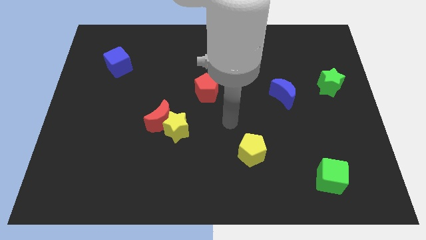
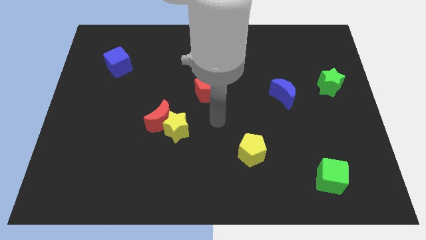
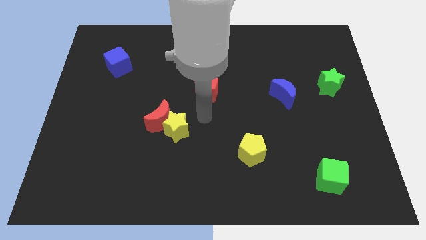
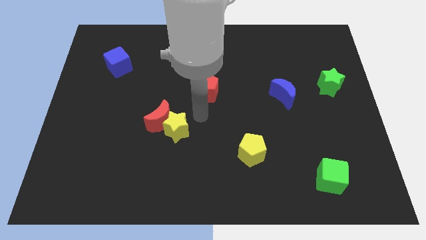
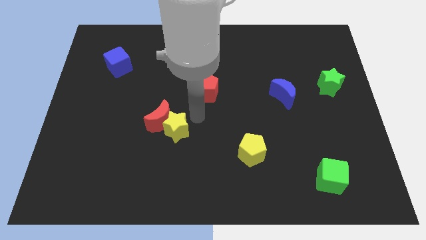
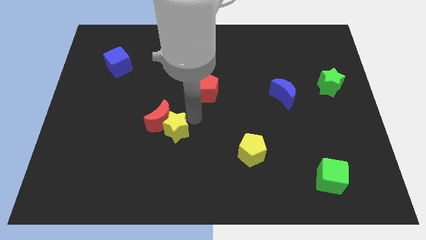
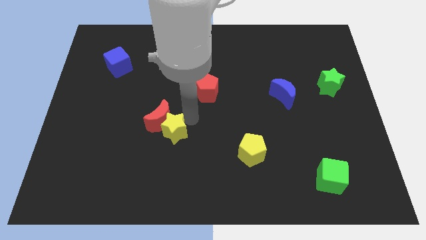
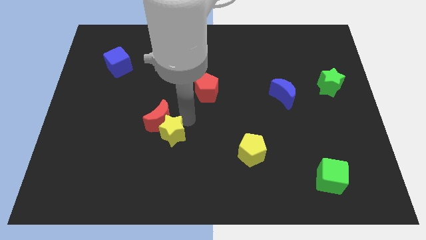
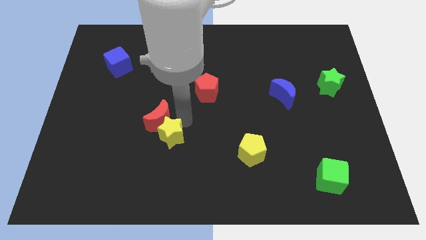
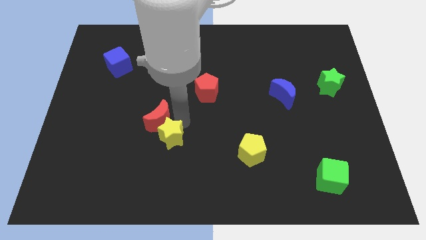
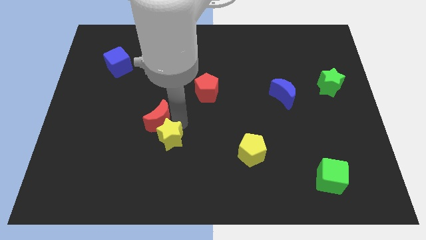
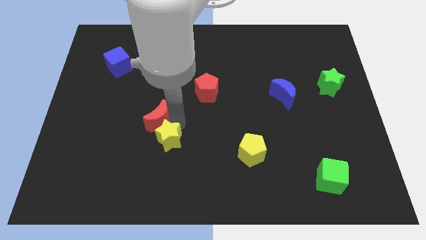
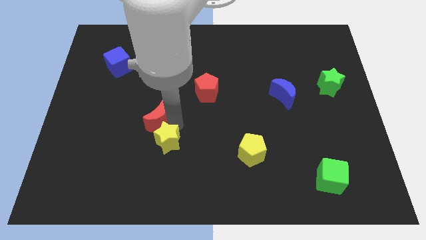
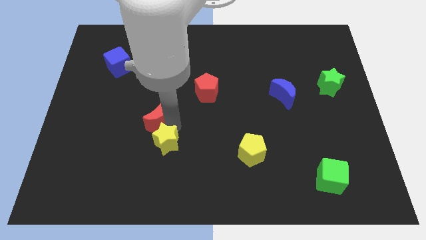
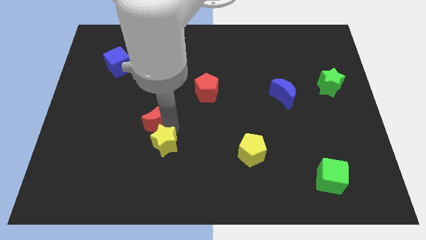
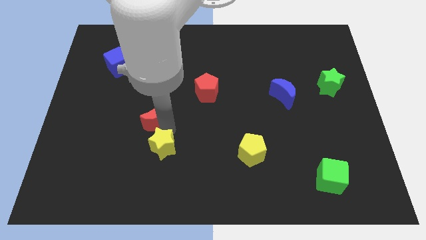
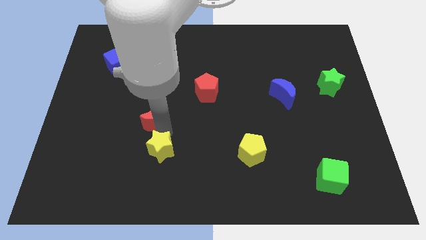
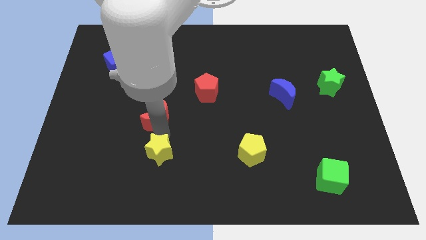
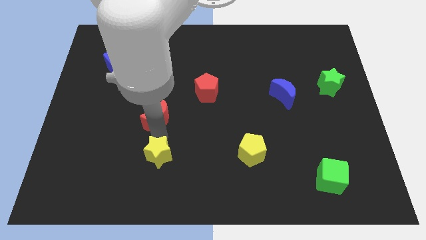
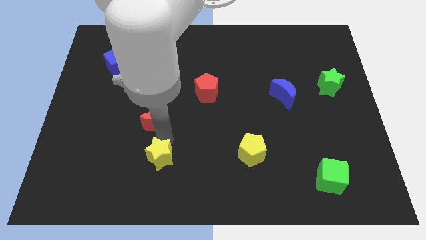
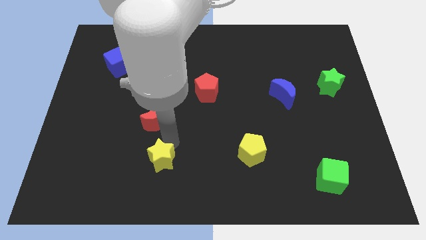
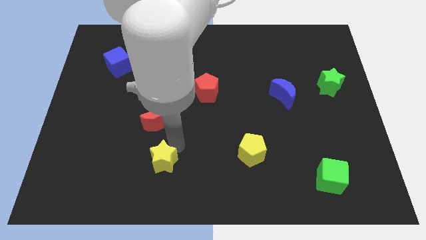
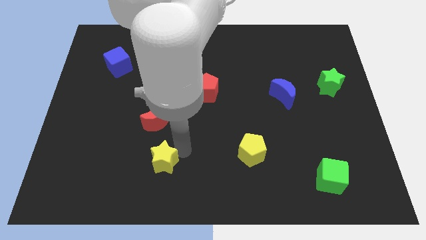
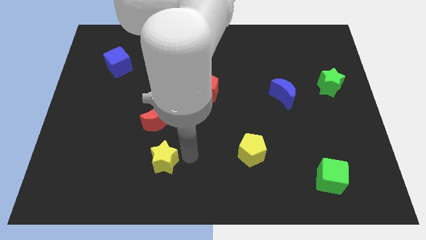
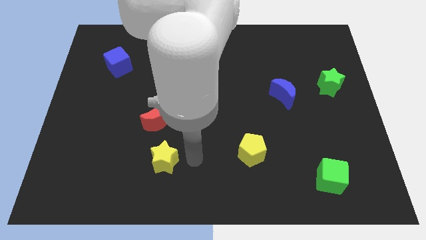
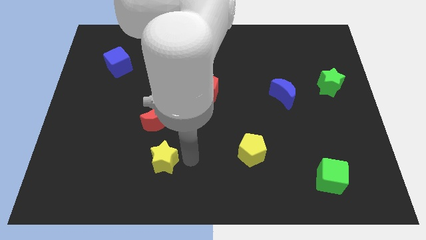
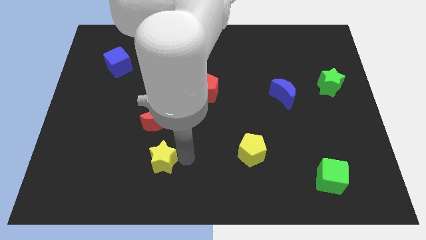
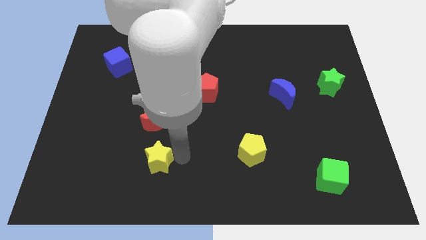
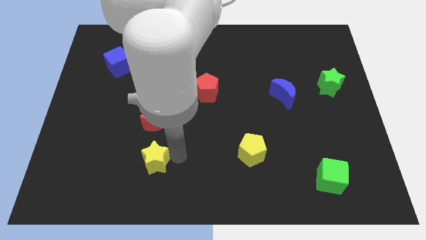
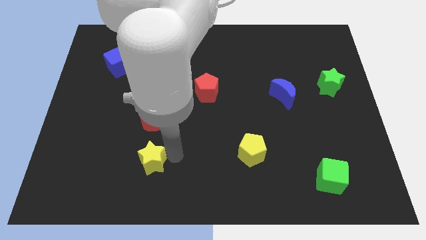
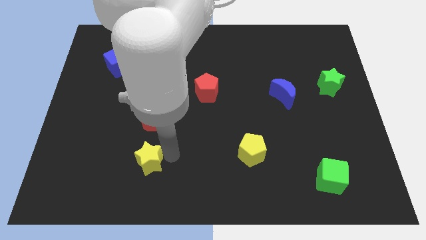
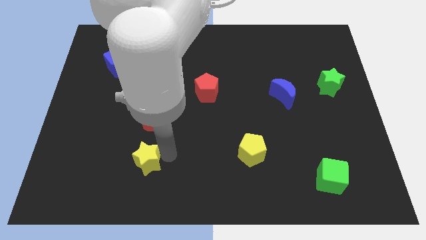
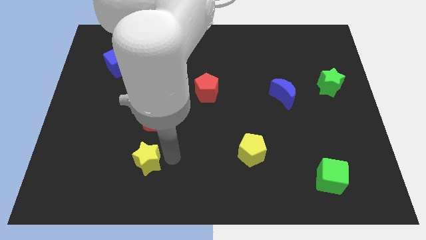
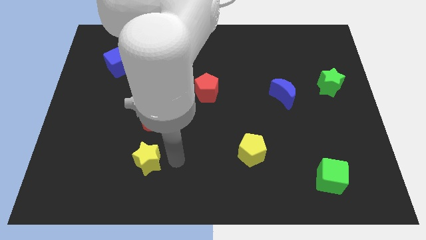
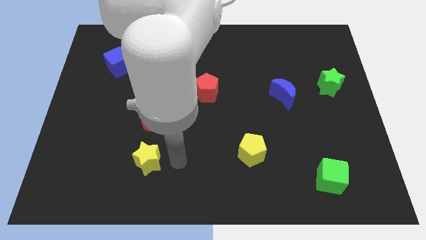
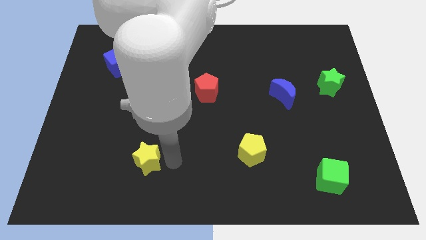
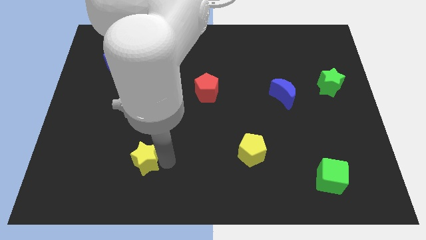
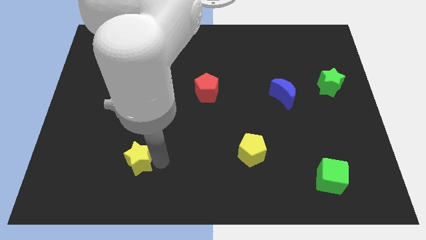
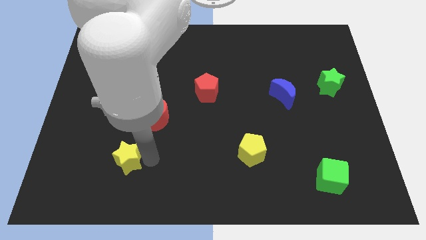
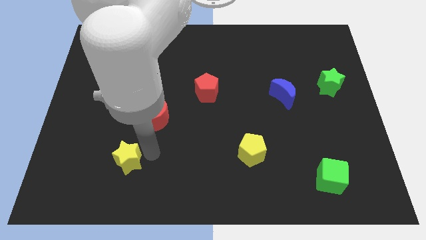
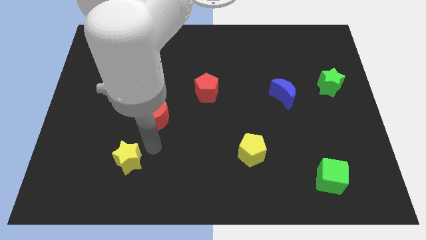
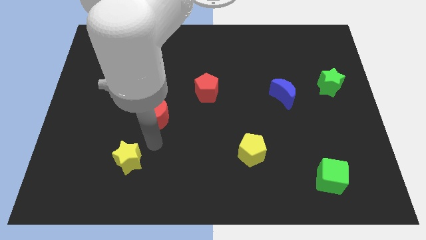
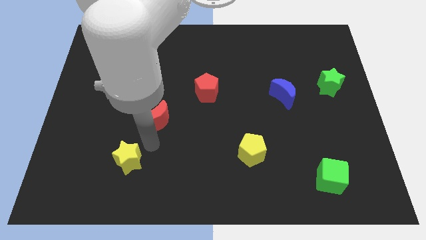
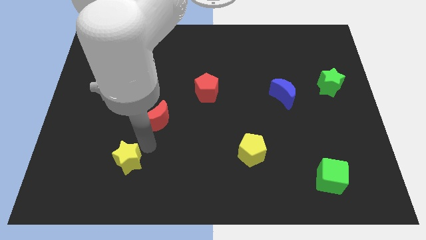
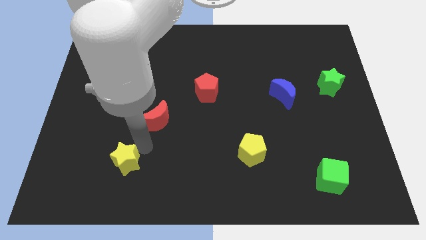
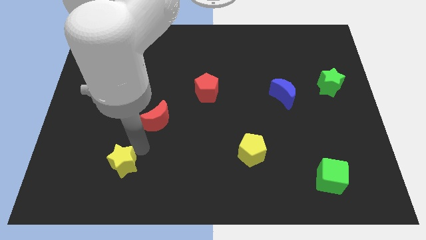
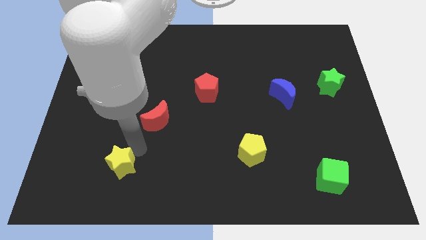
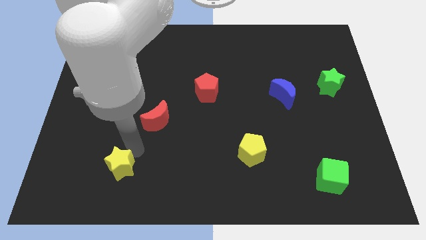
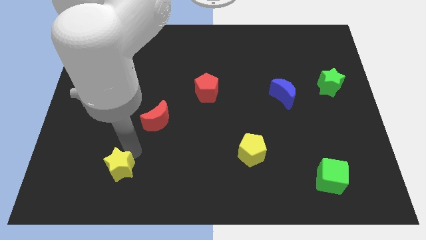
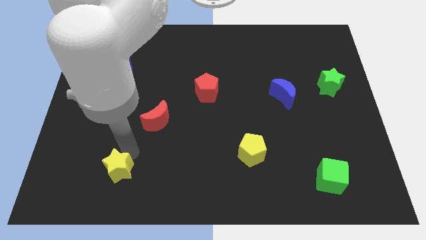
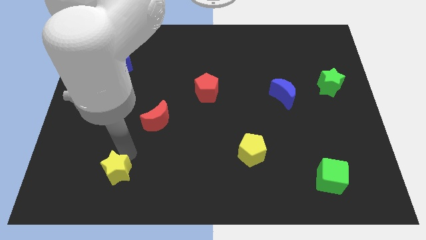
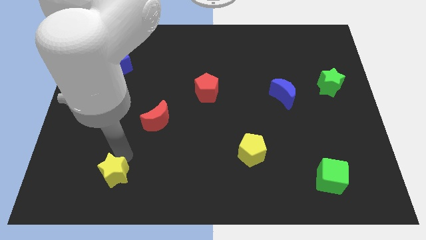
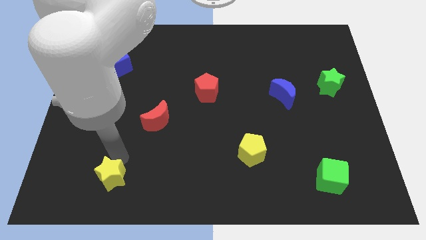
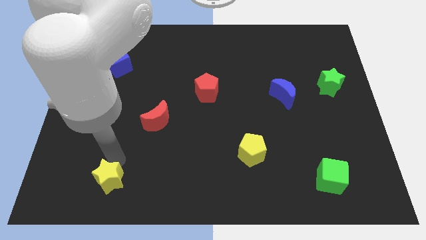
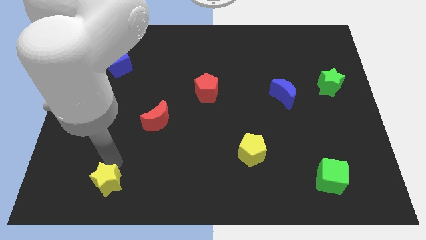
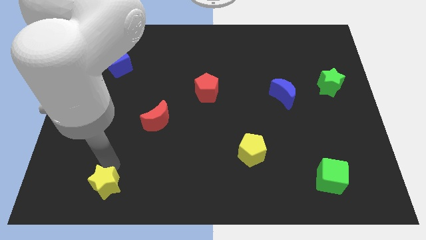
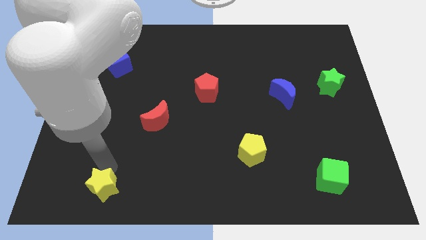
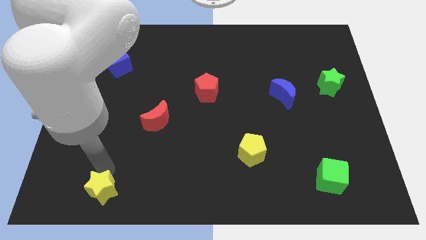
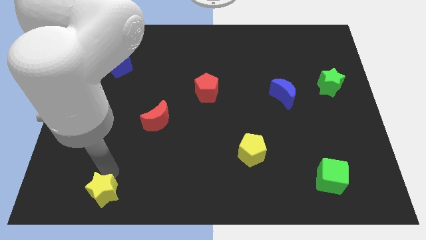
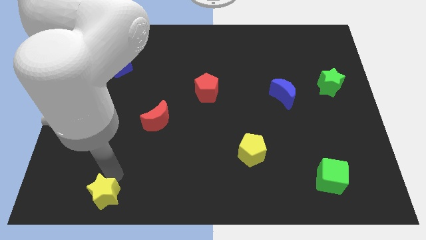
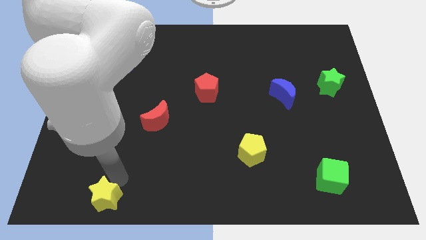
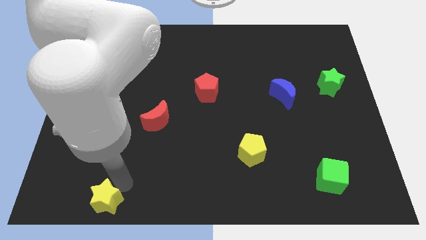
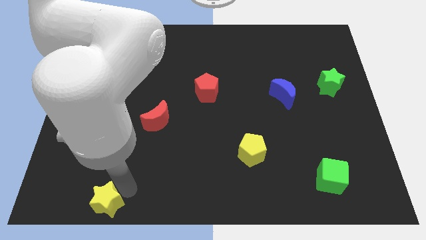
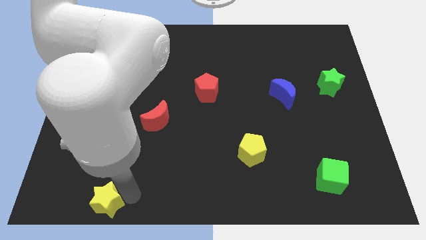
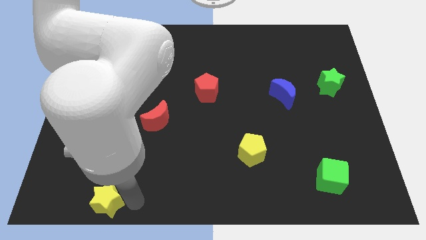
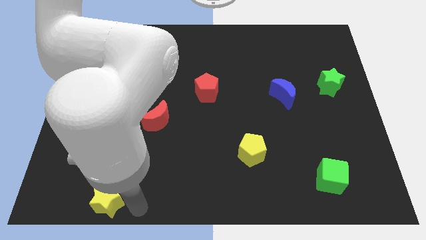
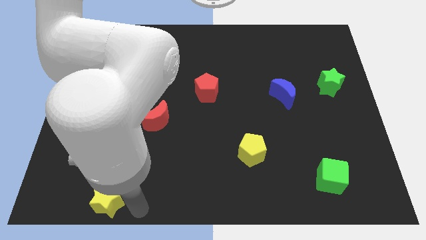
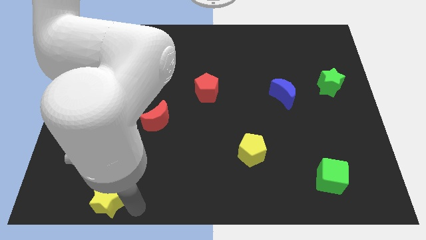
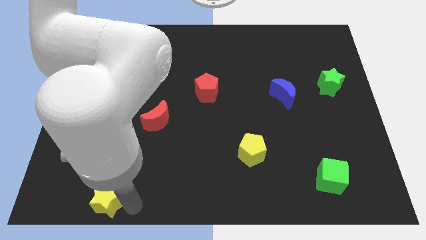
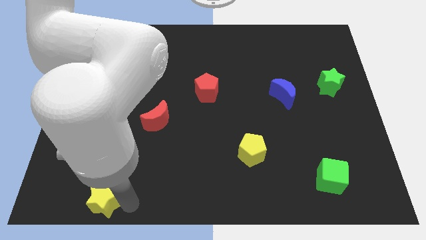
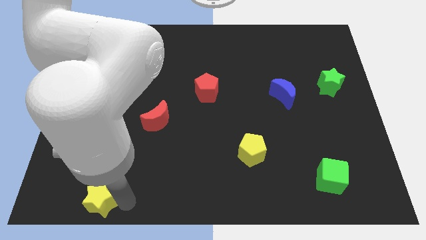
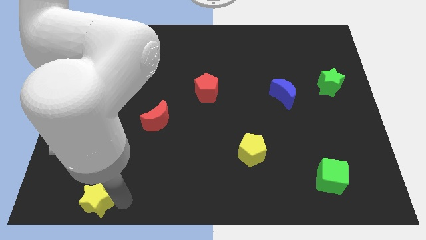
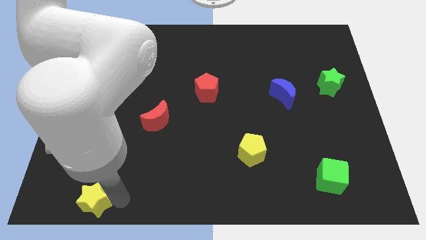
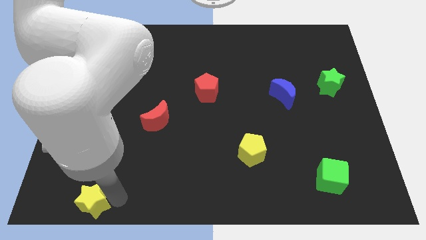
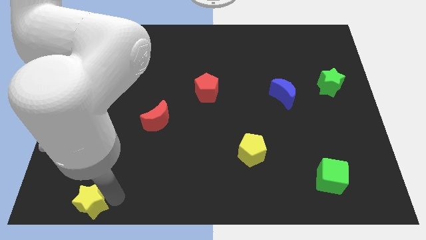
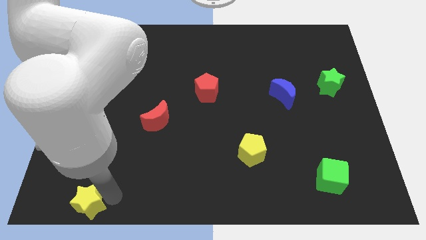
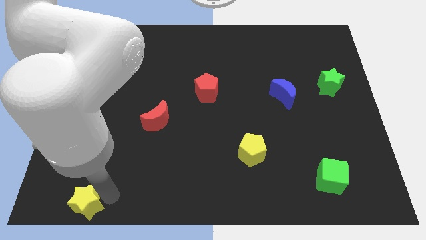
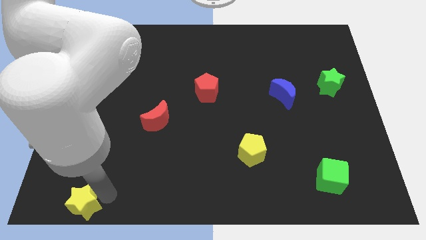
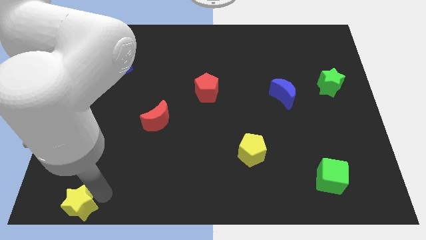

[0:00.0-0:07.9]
slide the yellow star to the bottom left of the board
